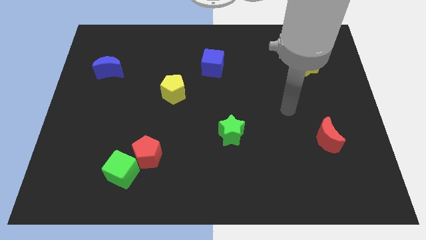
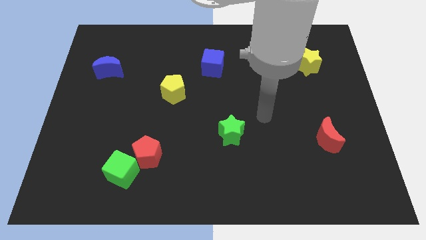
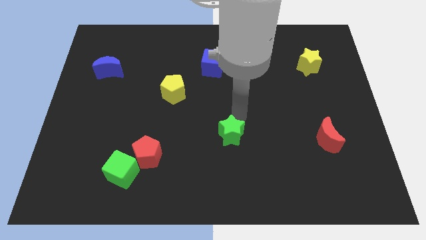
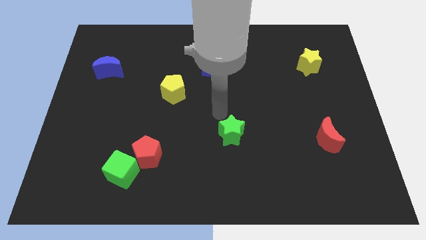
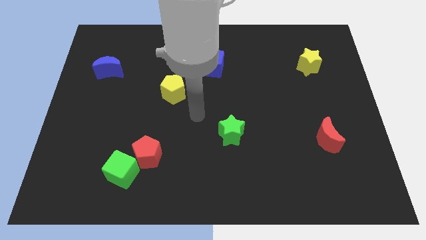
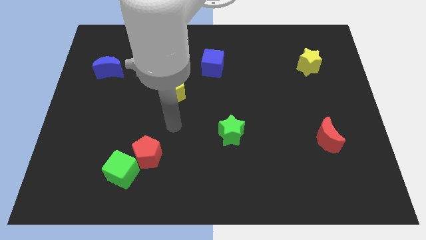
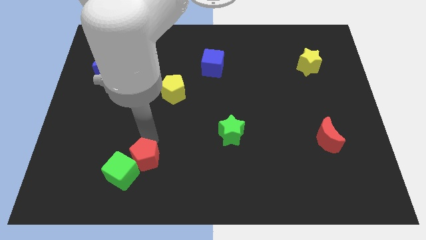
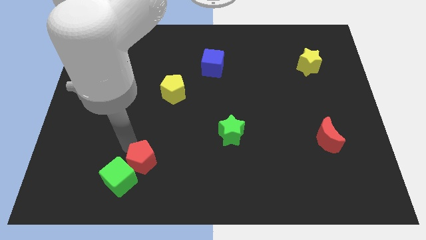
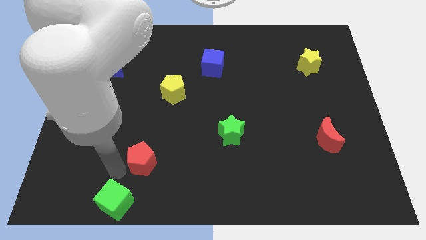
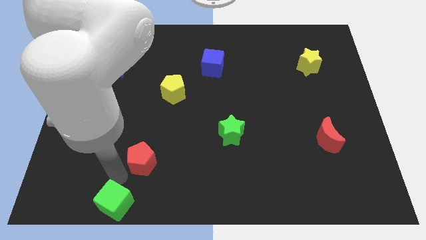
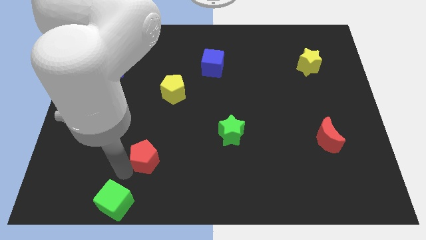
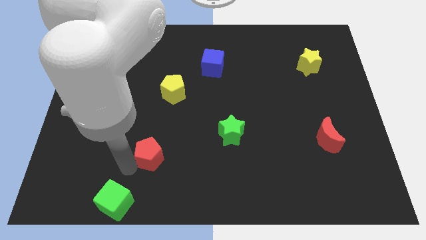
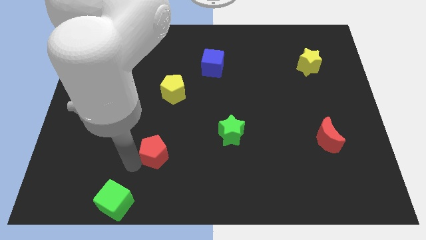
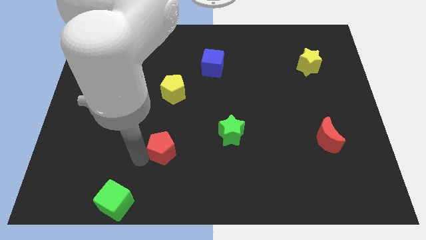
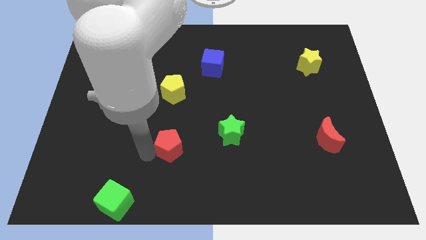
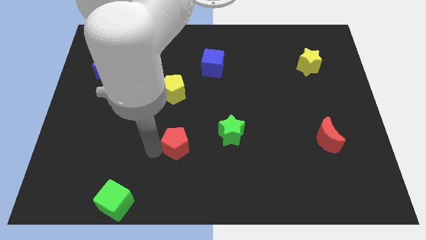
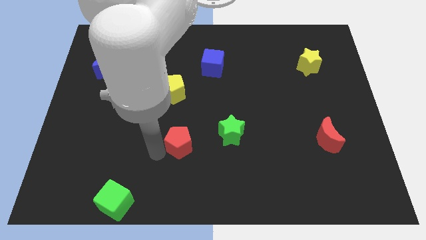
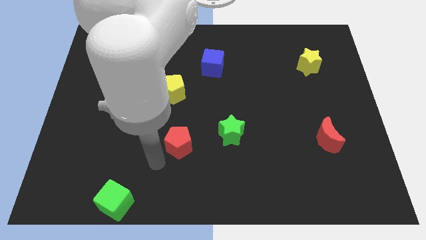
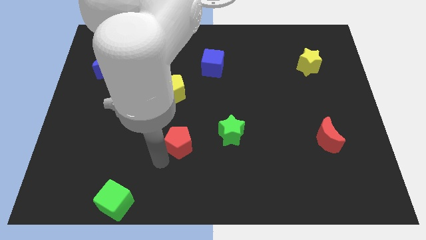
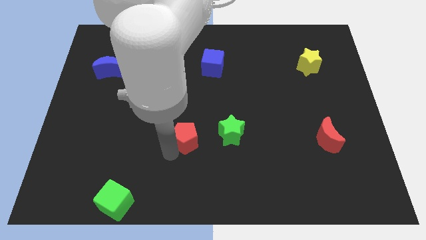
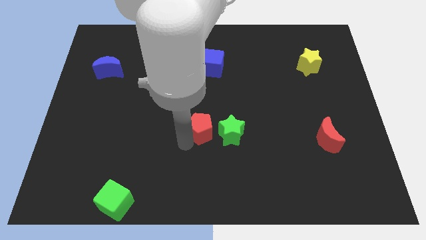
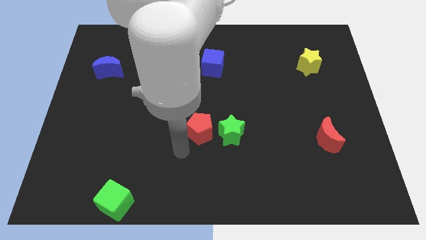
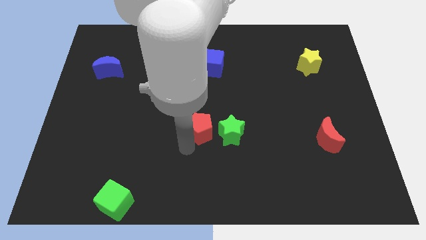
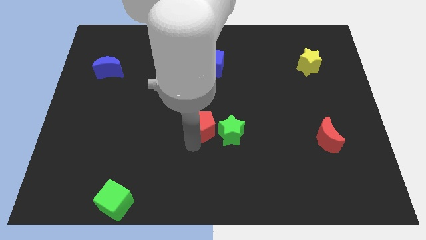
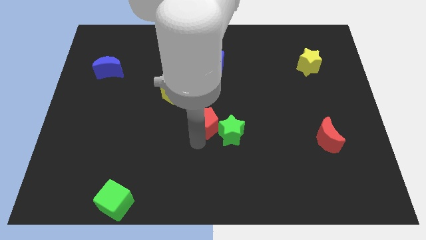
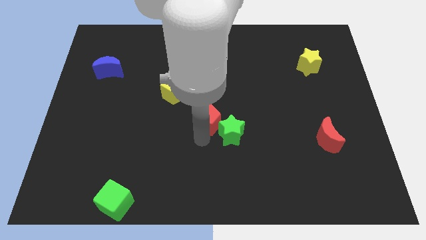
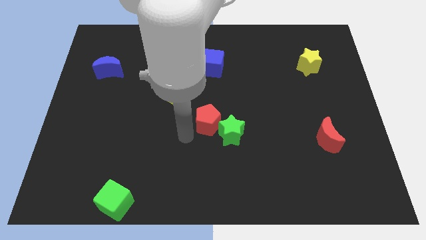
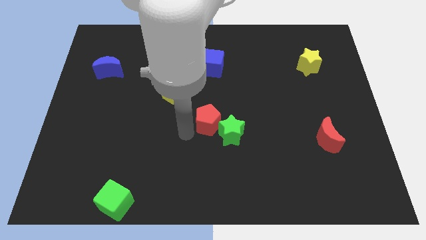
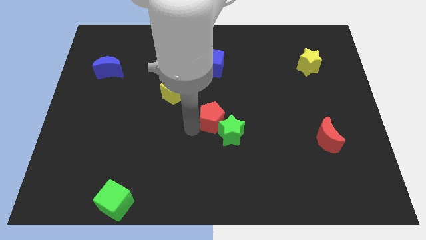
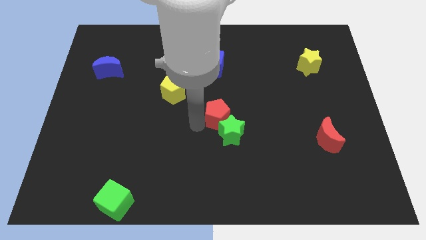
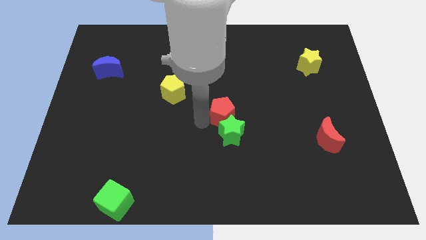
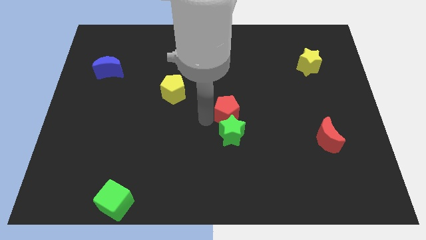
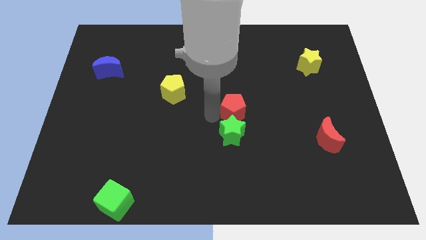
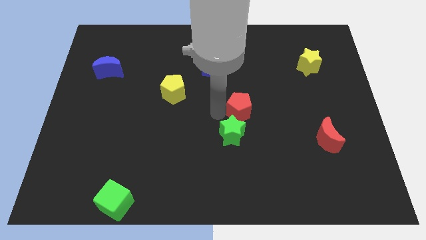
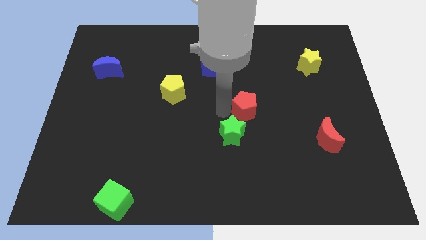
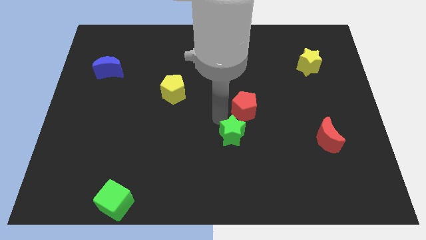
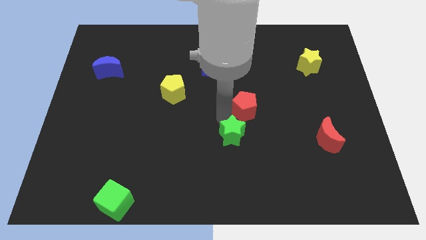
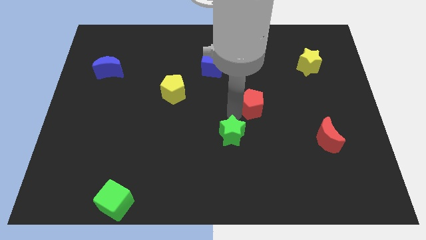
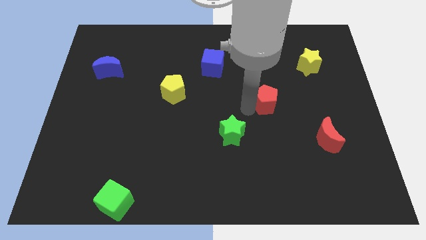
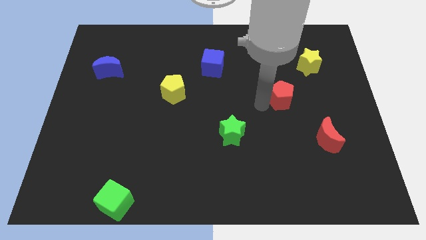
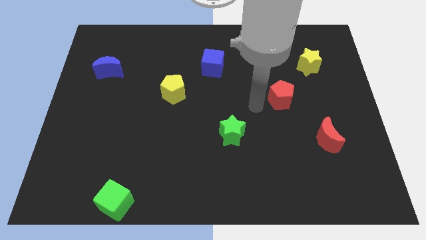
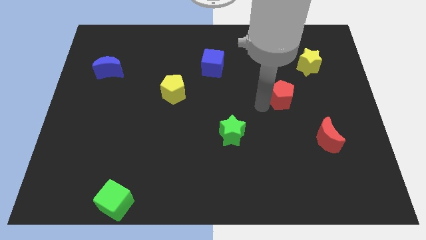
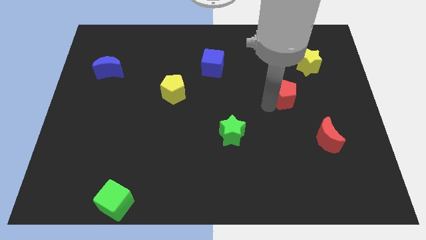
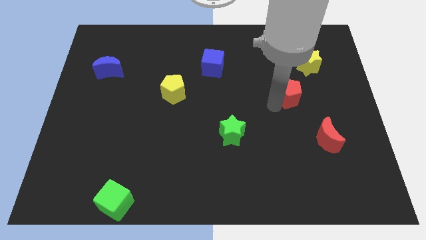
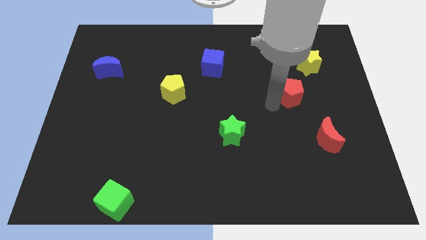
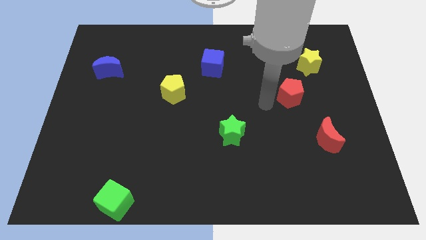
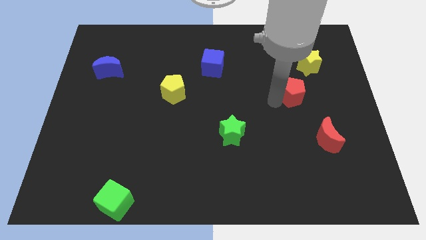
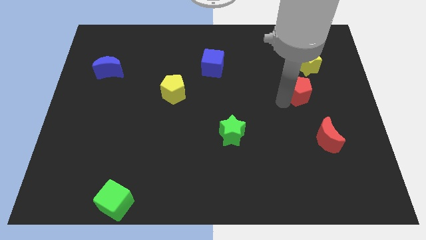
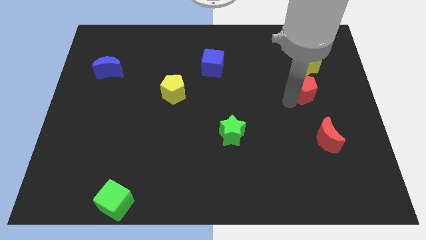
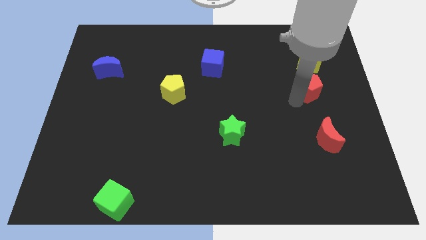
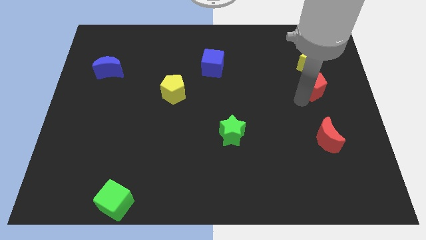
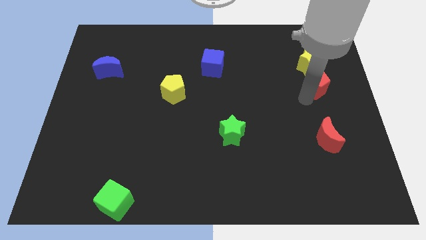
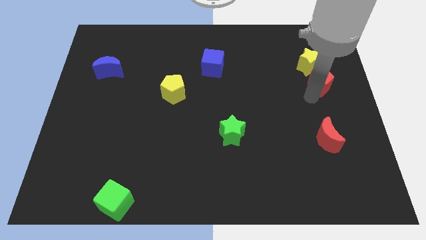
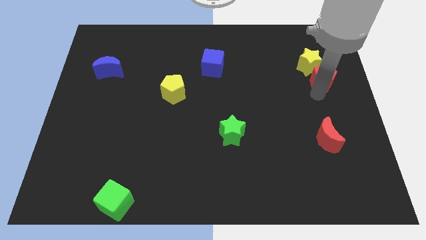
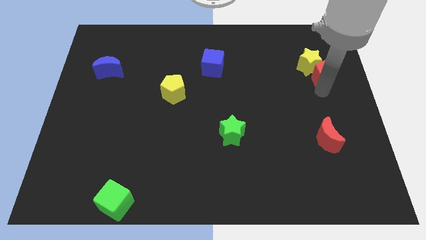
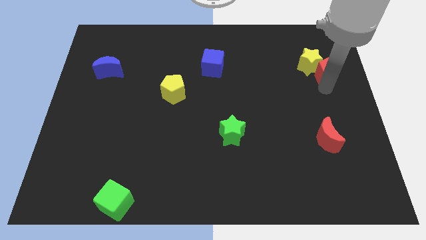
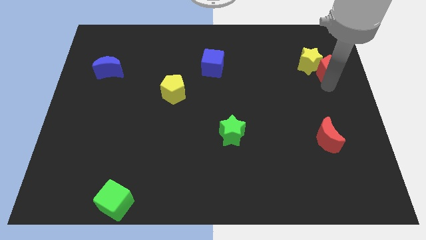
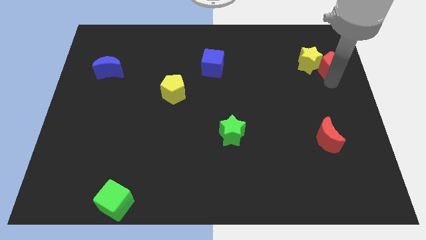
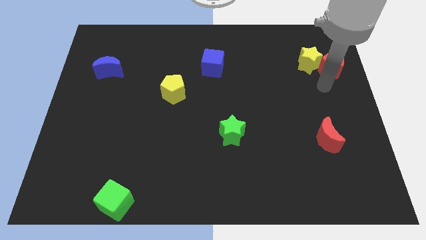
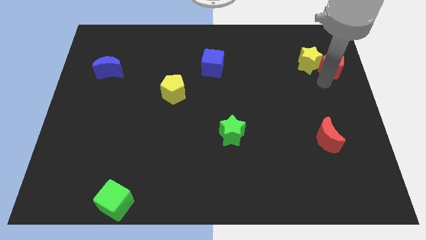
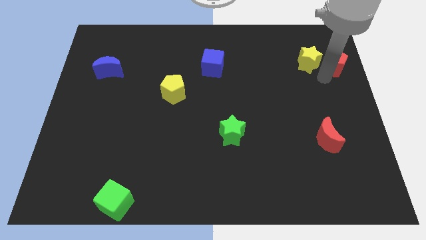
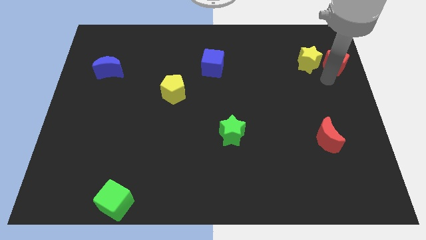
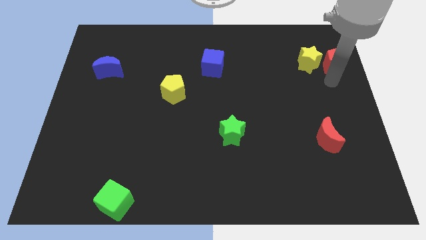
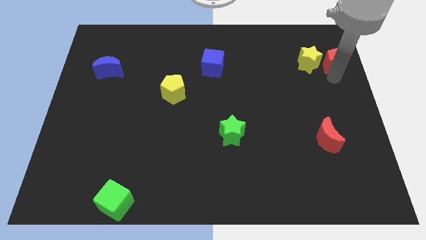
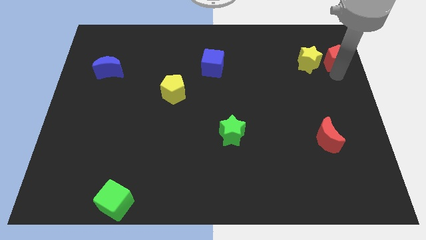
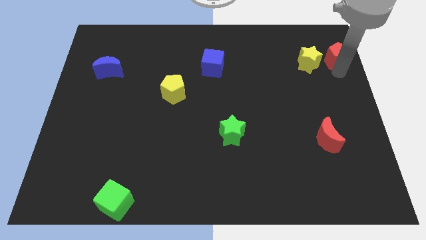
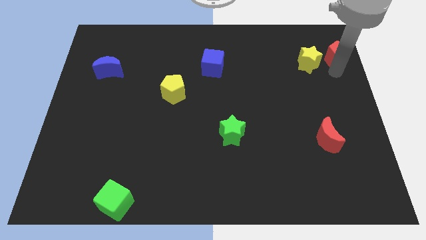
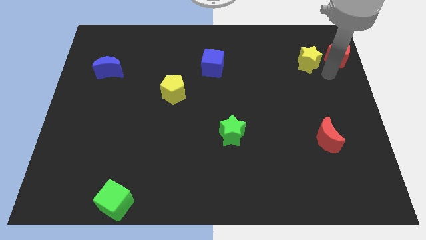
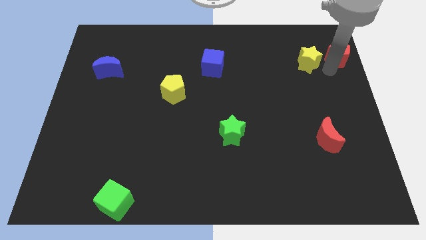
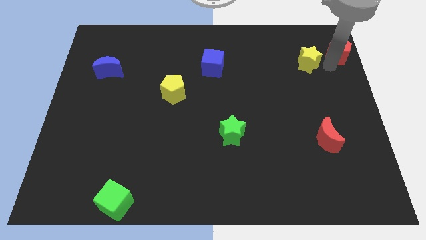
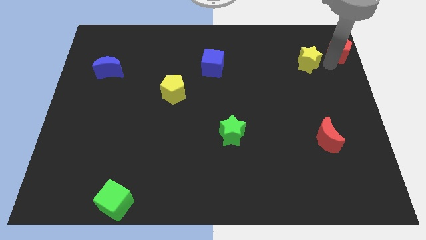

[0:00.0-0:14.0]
move the red pentagon to the top right

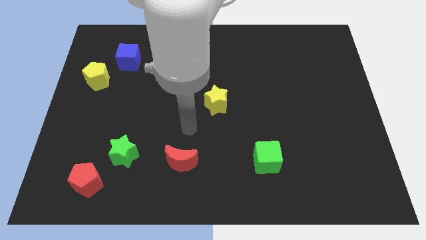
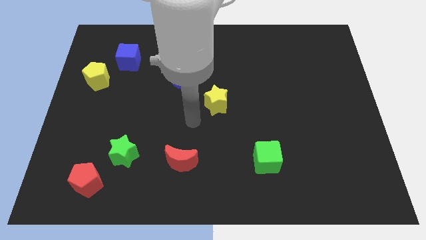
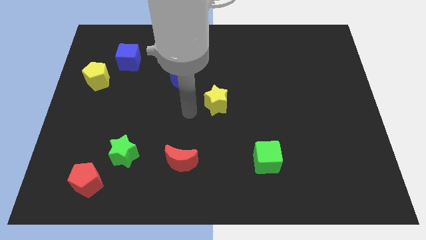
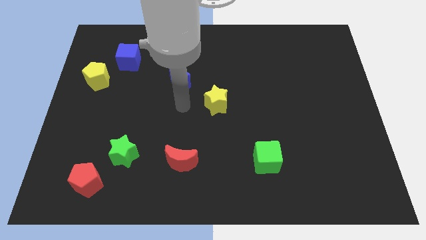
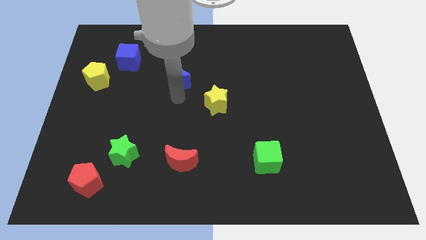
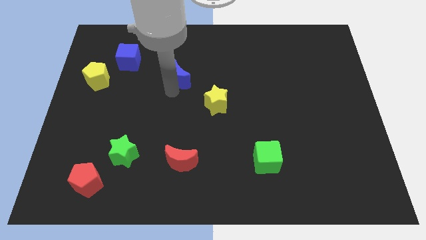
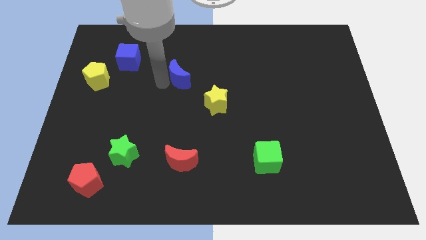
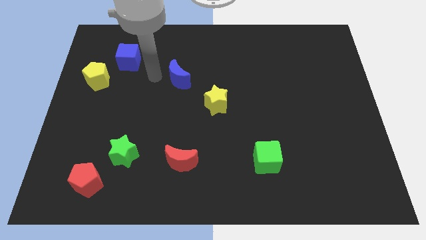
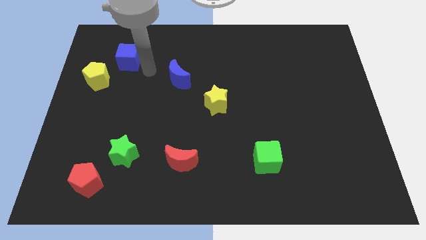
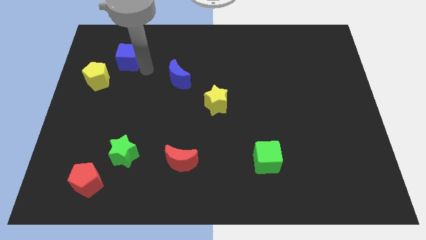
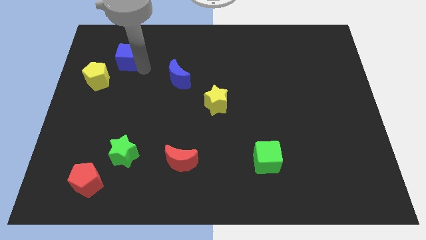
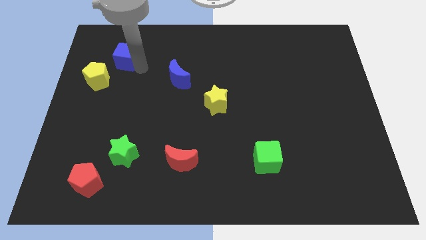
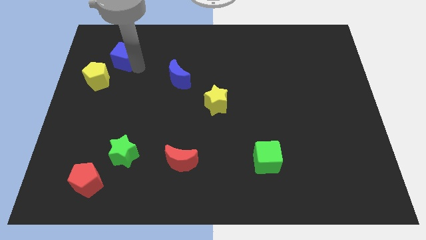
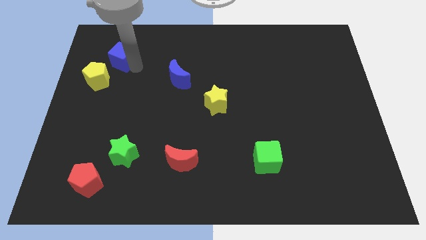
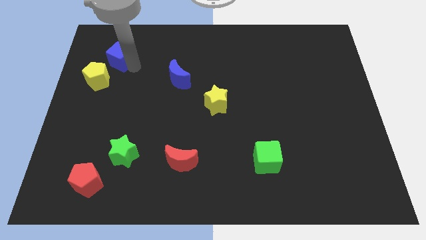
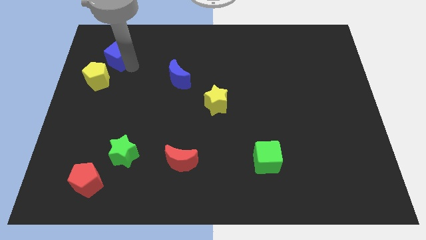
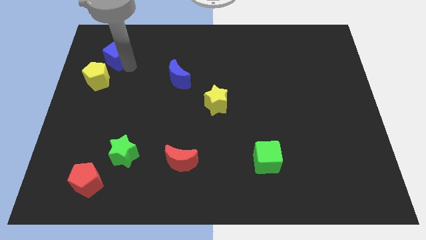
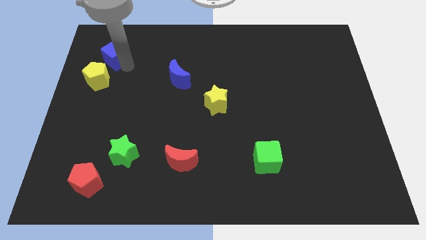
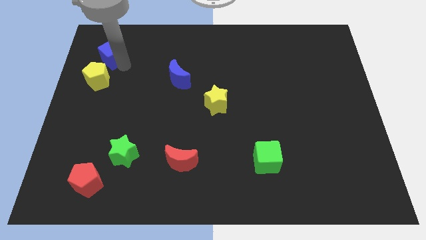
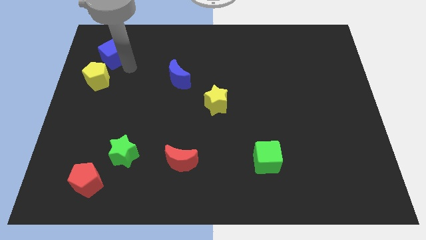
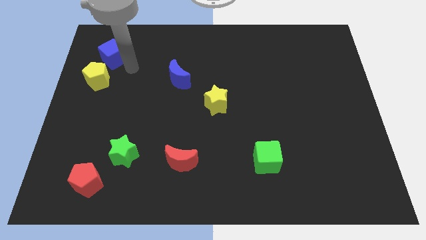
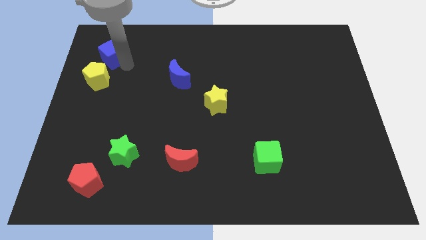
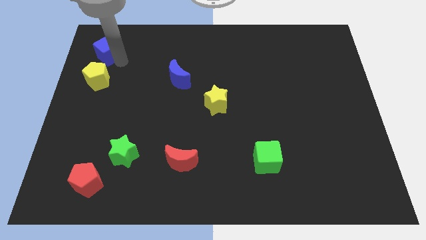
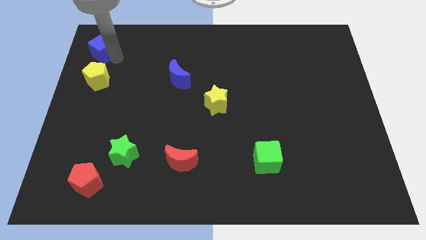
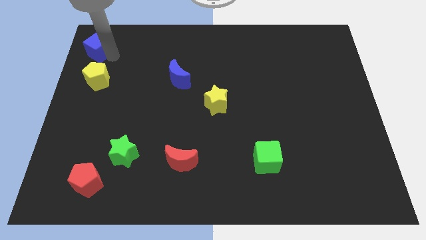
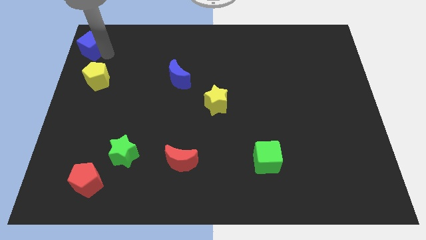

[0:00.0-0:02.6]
slide the blue cube to the top left corner
